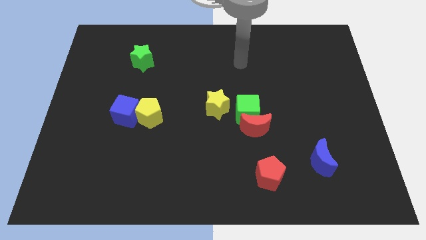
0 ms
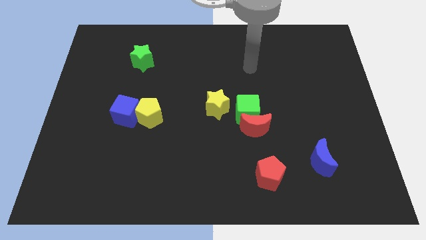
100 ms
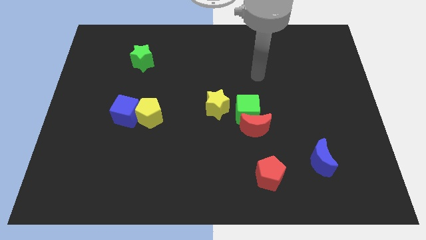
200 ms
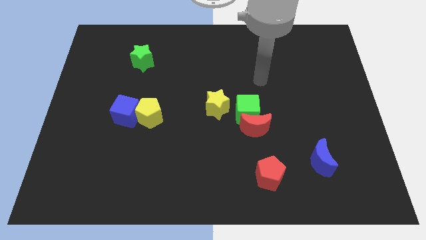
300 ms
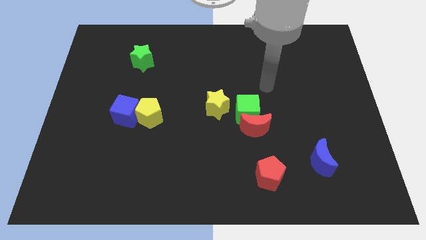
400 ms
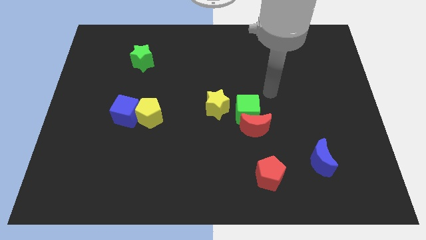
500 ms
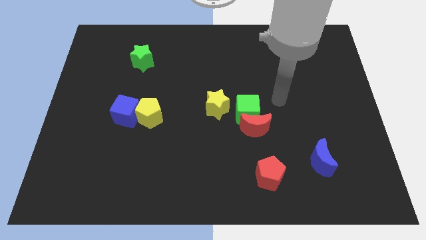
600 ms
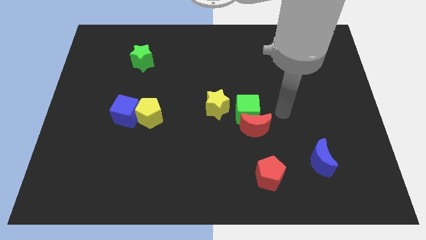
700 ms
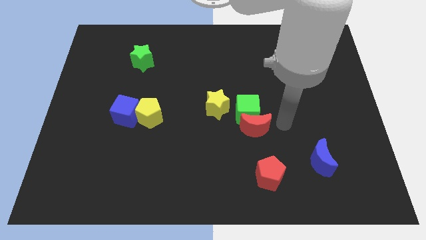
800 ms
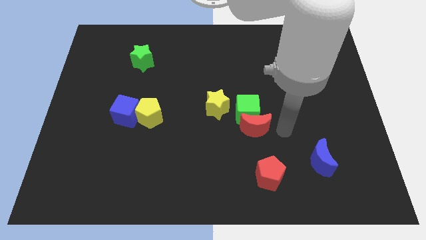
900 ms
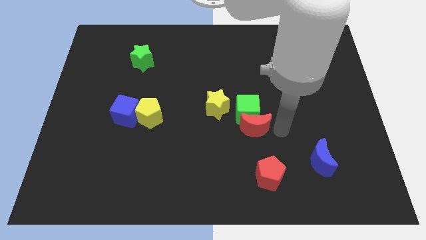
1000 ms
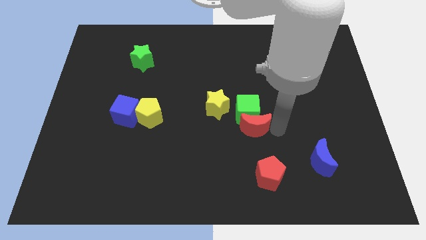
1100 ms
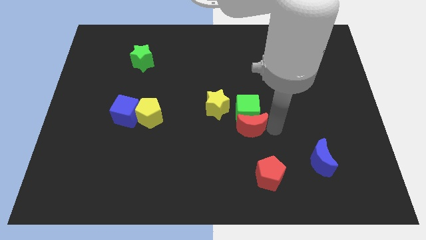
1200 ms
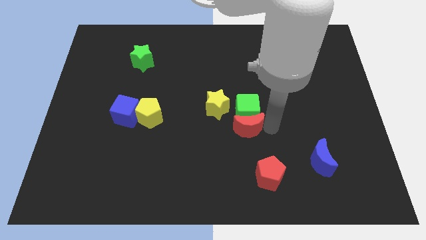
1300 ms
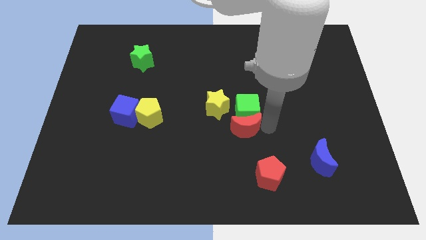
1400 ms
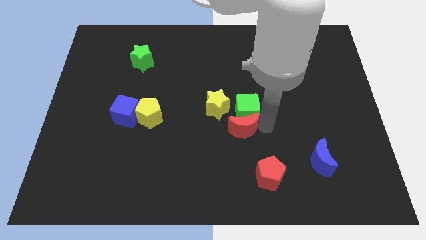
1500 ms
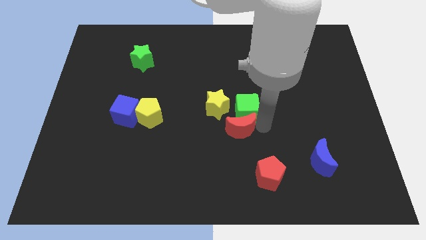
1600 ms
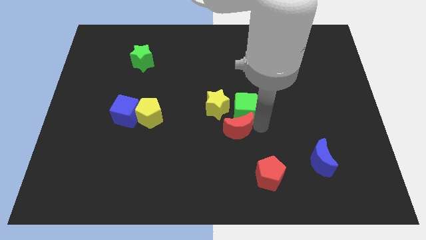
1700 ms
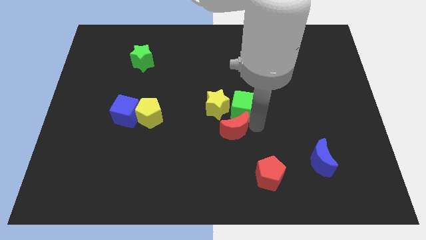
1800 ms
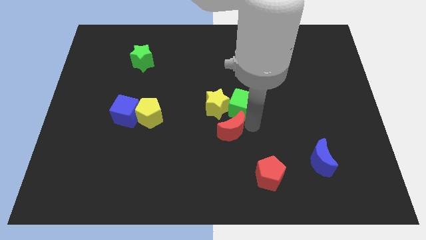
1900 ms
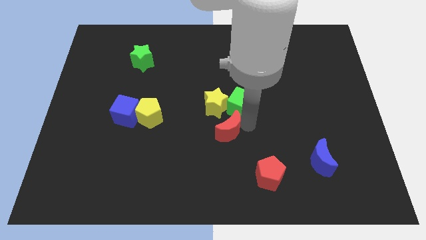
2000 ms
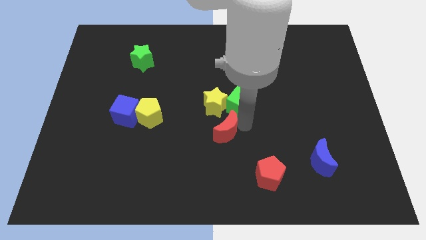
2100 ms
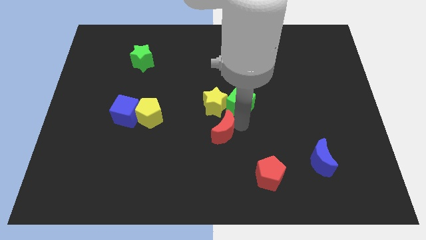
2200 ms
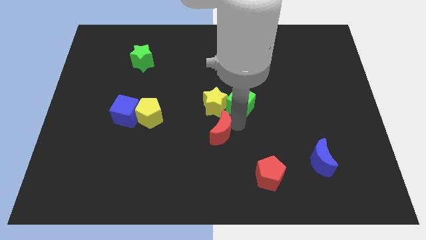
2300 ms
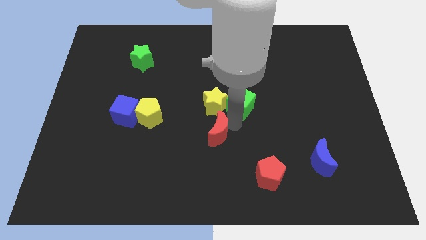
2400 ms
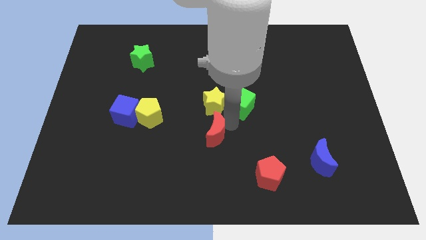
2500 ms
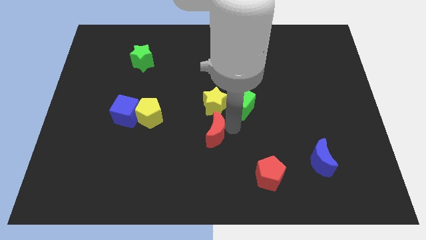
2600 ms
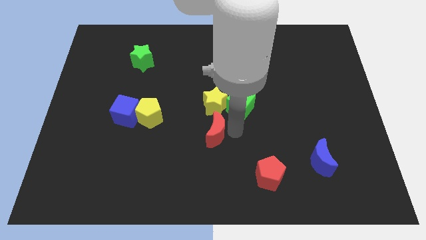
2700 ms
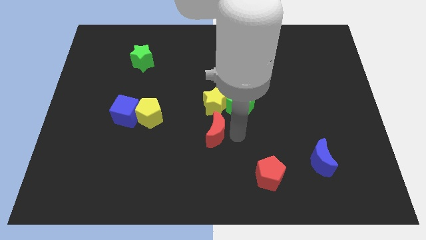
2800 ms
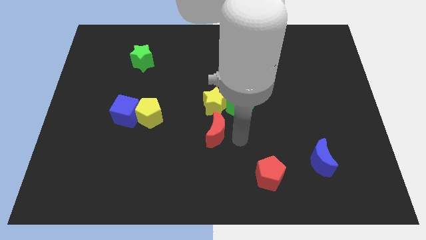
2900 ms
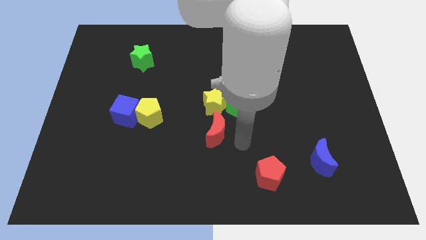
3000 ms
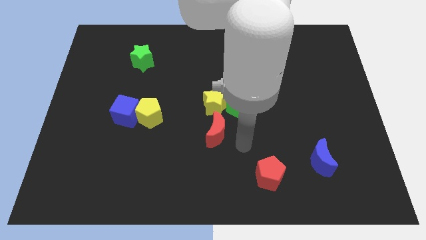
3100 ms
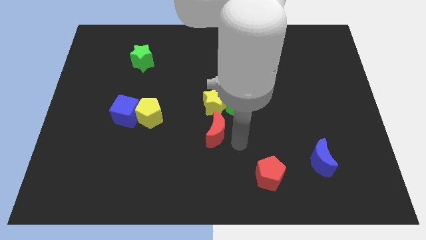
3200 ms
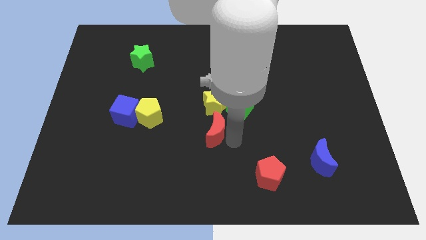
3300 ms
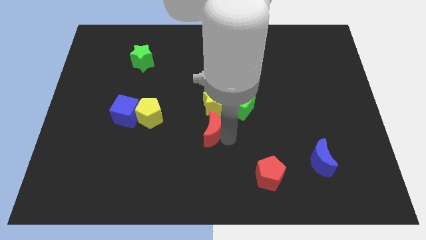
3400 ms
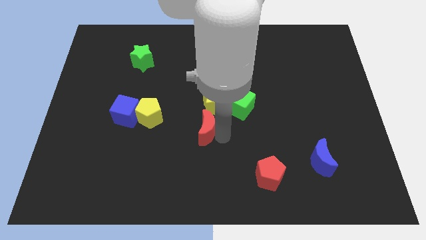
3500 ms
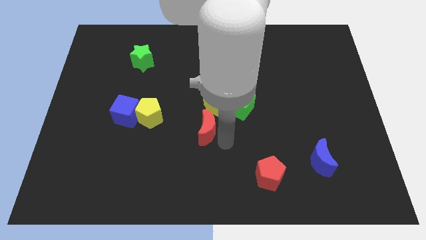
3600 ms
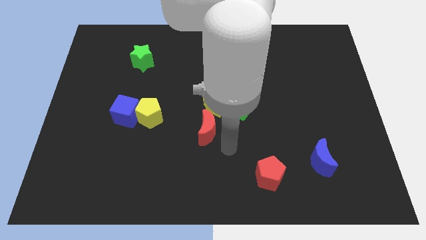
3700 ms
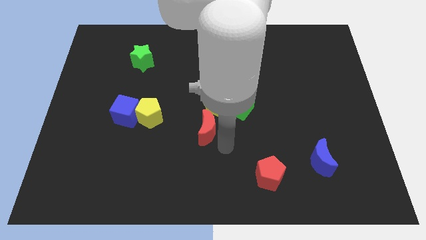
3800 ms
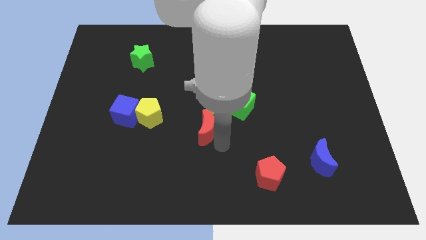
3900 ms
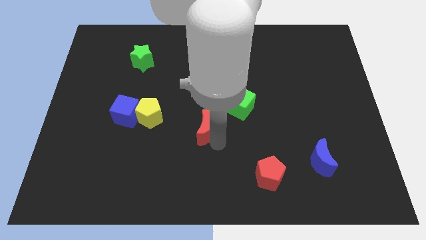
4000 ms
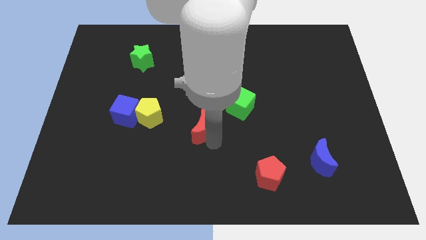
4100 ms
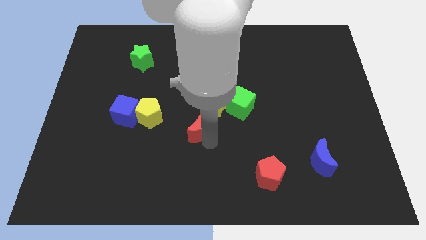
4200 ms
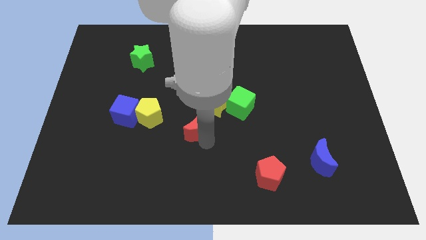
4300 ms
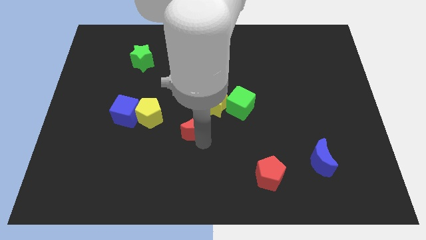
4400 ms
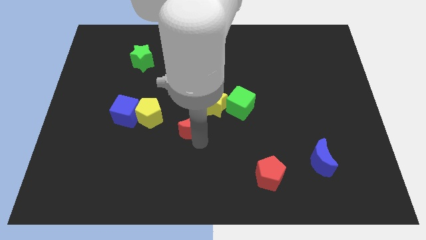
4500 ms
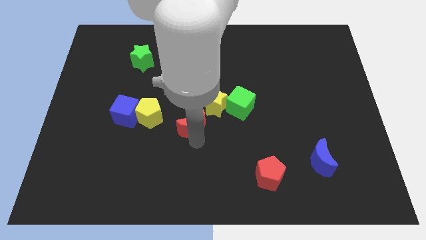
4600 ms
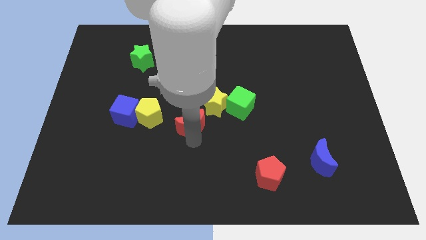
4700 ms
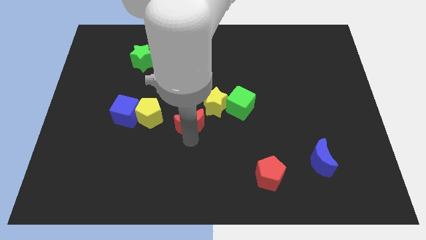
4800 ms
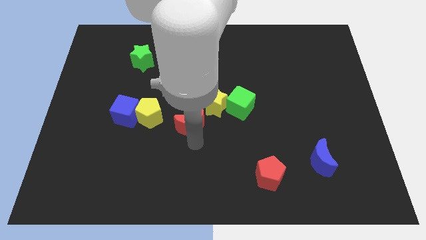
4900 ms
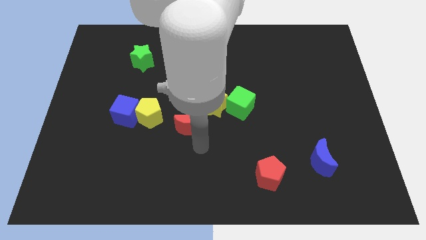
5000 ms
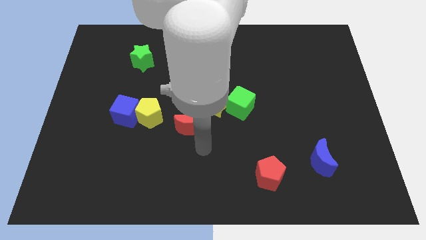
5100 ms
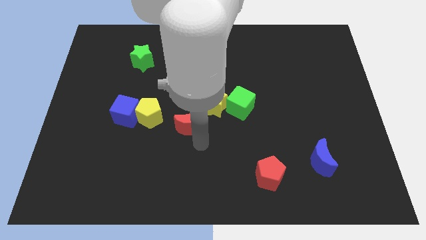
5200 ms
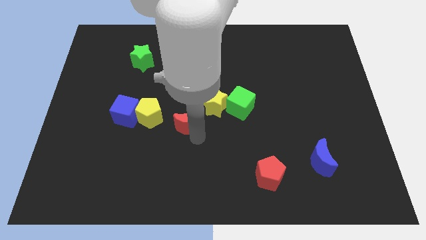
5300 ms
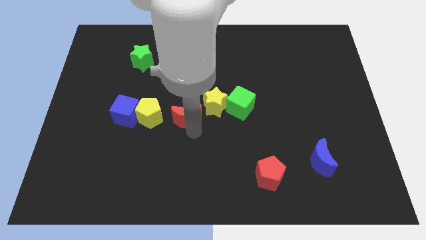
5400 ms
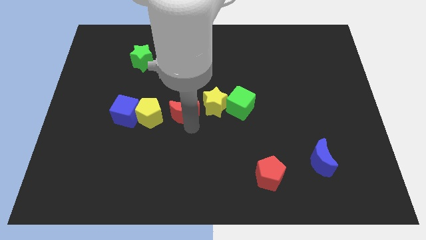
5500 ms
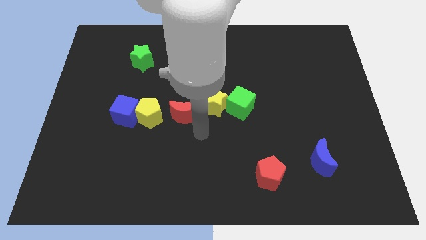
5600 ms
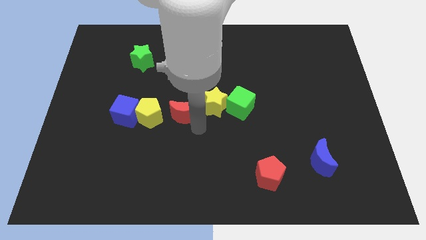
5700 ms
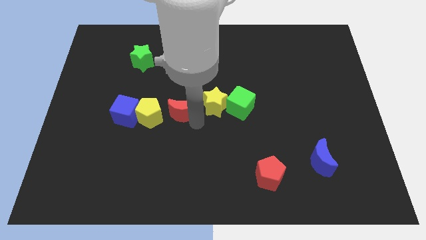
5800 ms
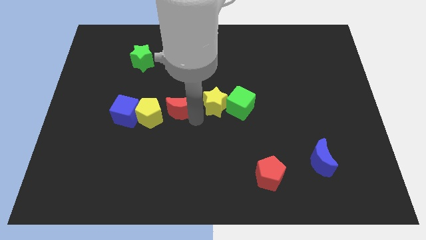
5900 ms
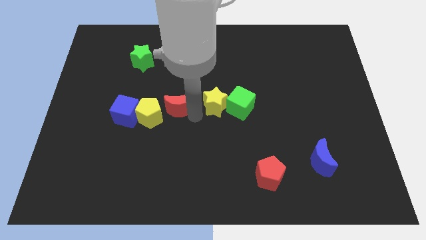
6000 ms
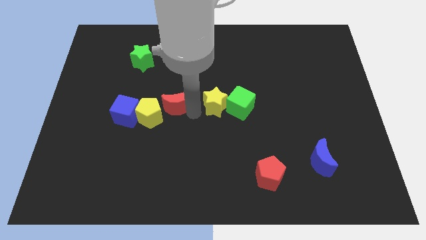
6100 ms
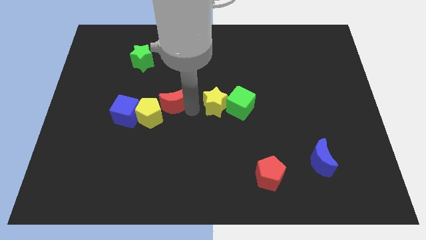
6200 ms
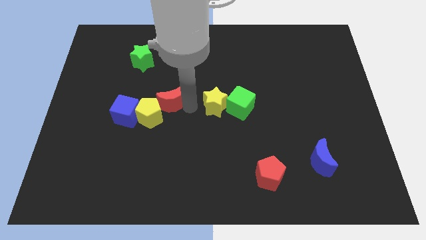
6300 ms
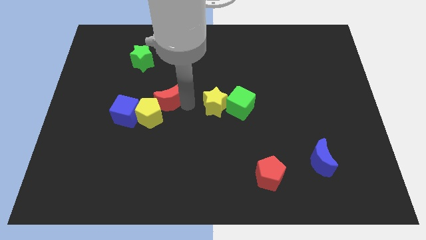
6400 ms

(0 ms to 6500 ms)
put the red moon above the yellow pentagon

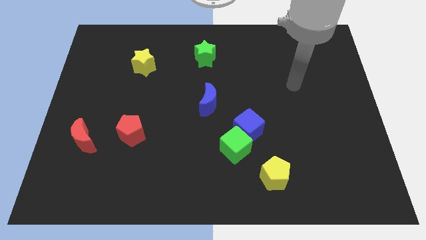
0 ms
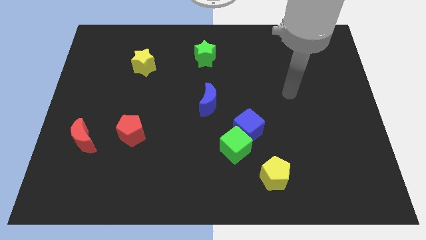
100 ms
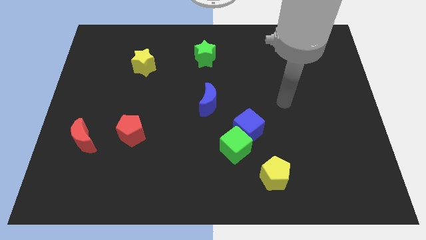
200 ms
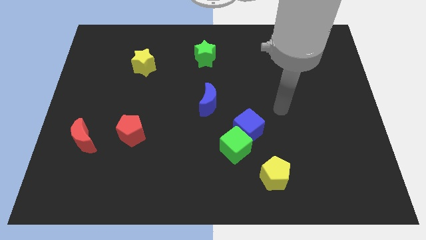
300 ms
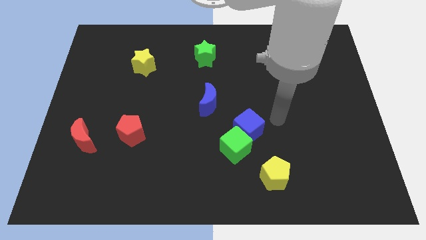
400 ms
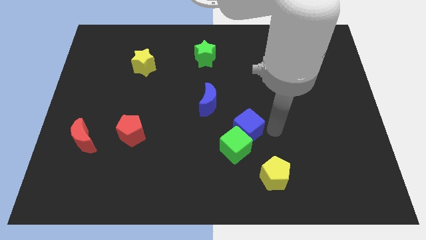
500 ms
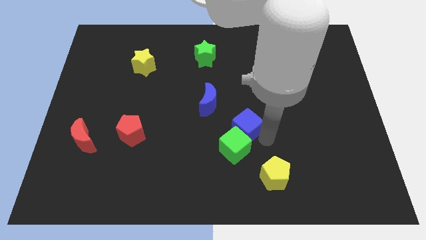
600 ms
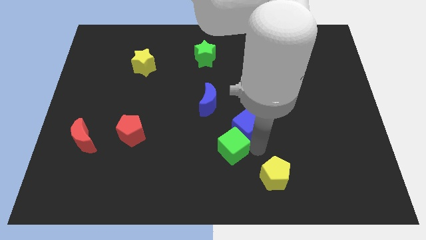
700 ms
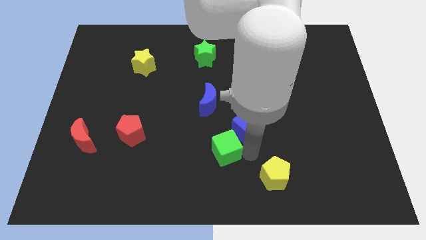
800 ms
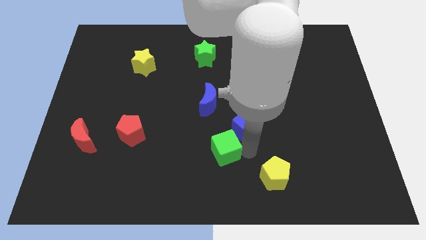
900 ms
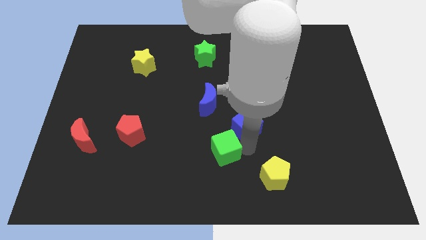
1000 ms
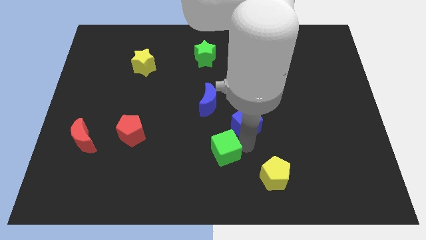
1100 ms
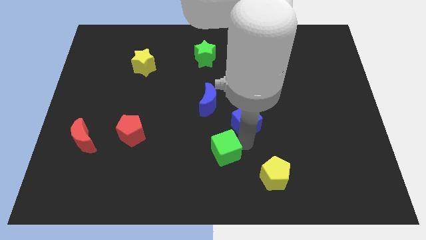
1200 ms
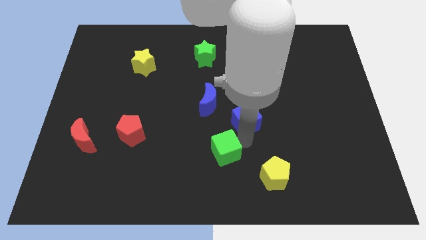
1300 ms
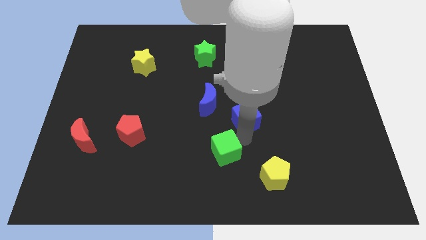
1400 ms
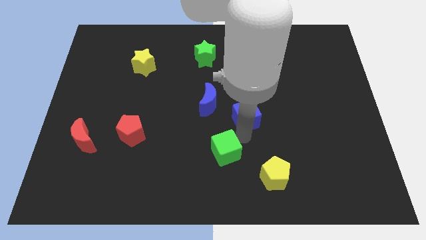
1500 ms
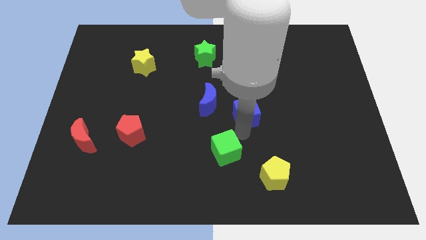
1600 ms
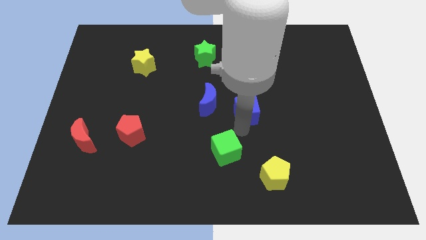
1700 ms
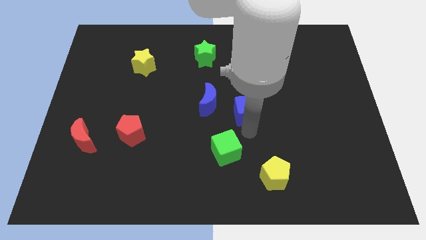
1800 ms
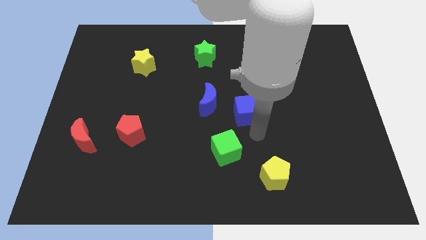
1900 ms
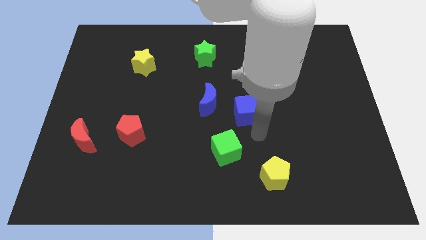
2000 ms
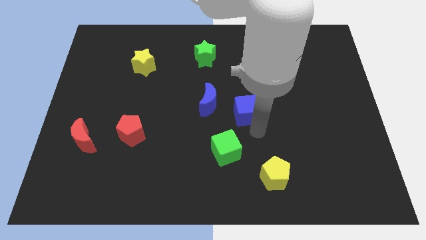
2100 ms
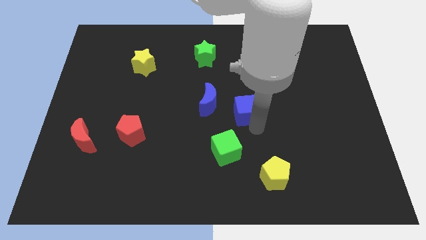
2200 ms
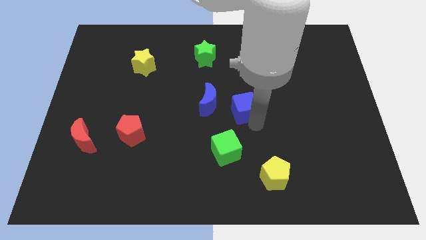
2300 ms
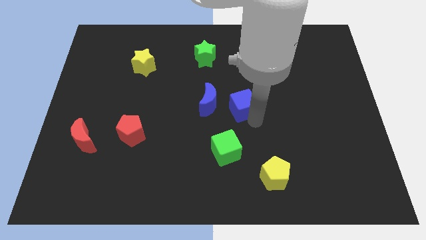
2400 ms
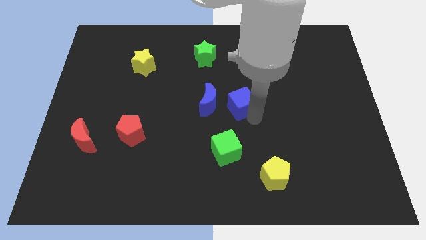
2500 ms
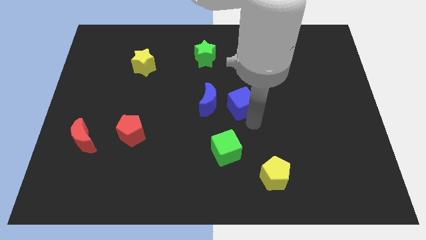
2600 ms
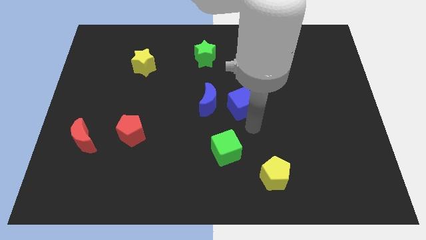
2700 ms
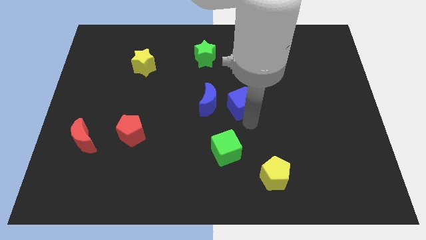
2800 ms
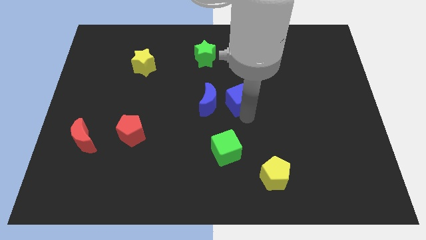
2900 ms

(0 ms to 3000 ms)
push the blue cube diagonally up and to the right of the blue moon
